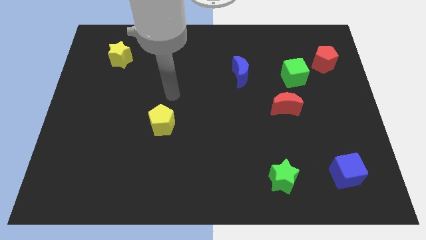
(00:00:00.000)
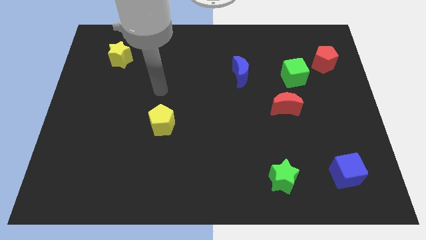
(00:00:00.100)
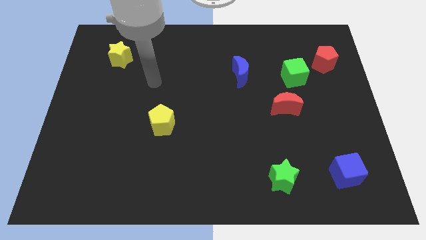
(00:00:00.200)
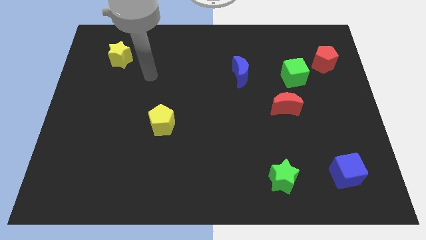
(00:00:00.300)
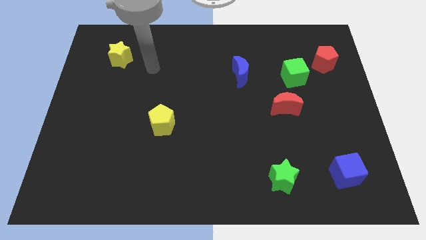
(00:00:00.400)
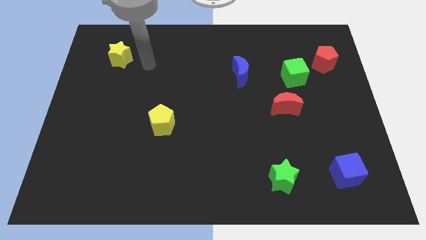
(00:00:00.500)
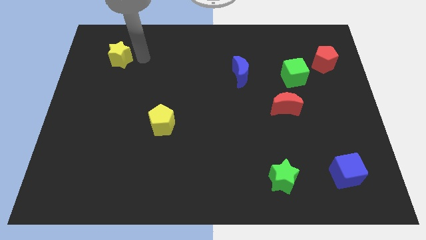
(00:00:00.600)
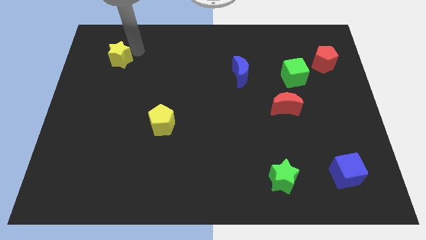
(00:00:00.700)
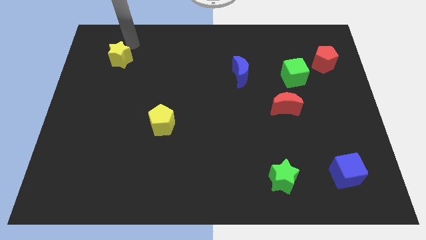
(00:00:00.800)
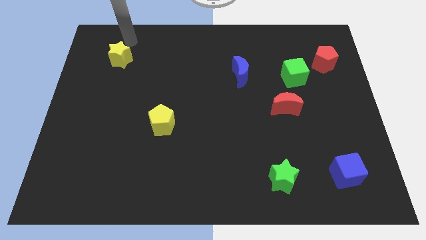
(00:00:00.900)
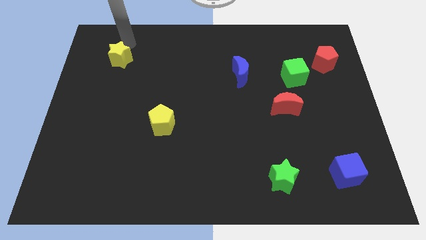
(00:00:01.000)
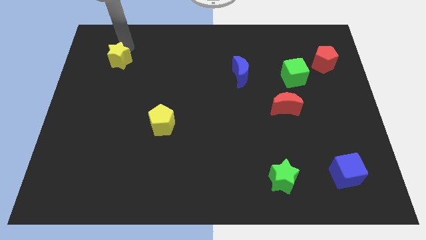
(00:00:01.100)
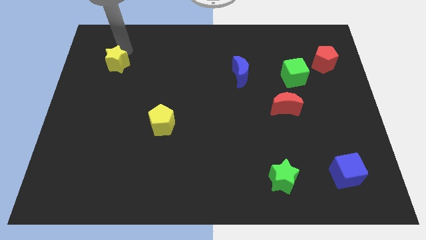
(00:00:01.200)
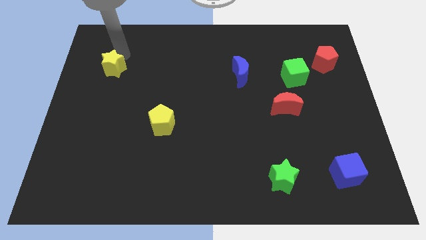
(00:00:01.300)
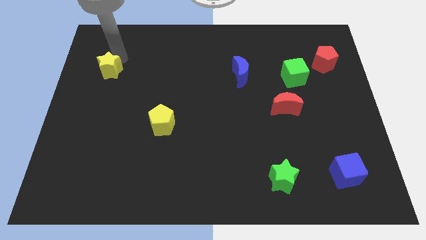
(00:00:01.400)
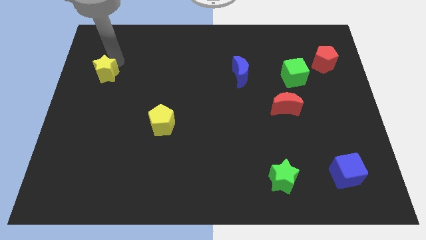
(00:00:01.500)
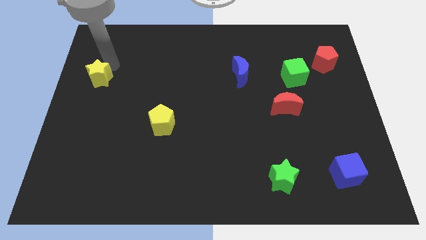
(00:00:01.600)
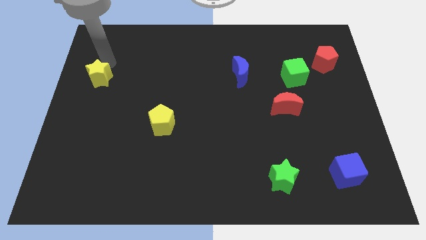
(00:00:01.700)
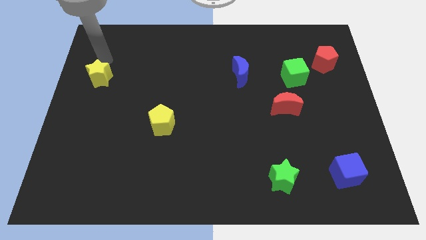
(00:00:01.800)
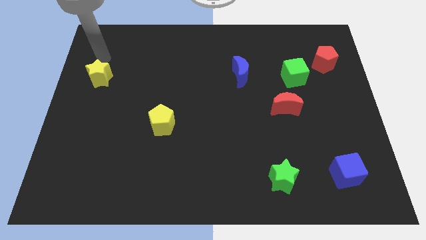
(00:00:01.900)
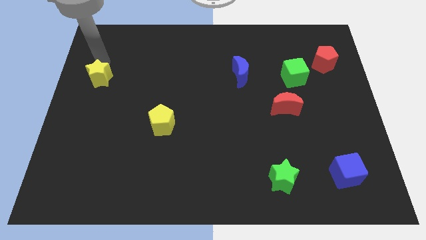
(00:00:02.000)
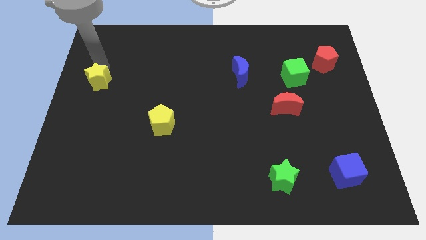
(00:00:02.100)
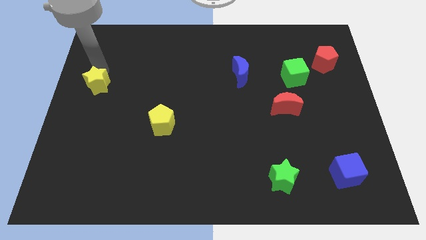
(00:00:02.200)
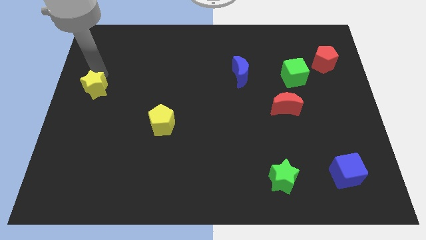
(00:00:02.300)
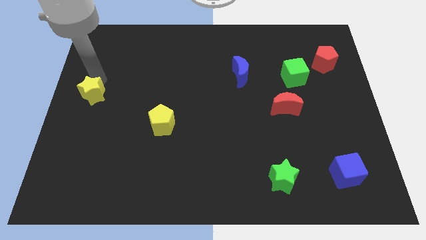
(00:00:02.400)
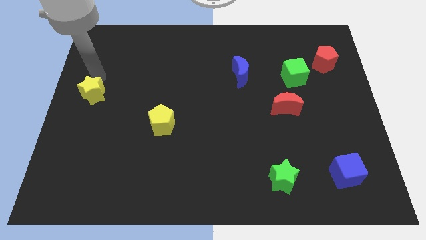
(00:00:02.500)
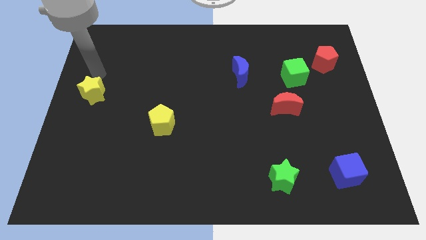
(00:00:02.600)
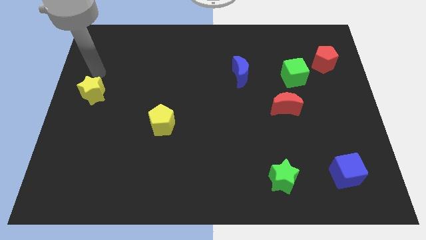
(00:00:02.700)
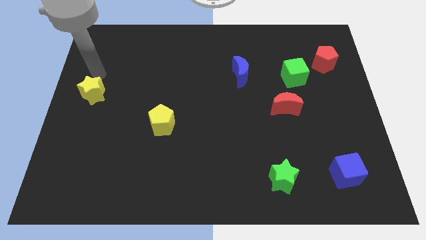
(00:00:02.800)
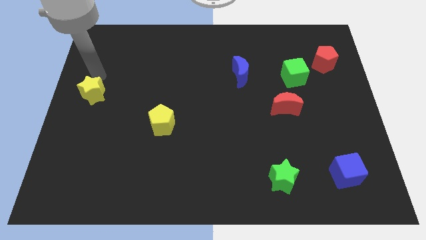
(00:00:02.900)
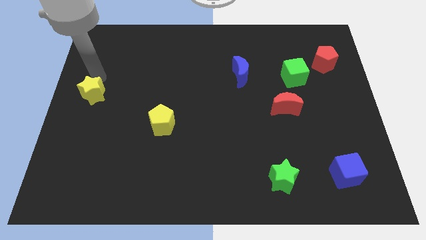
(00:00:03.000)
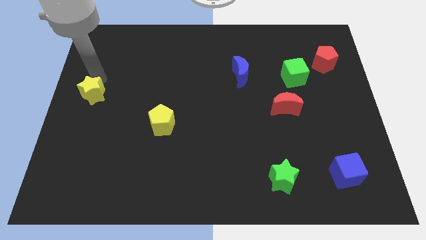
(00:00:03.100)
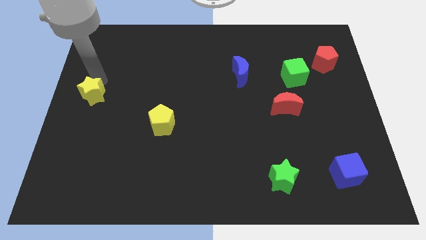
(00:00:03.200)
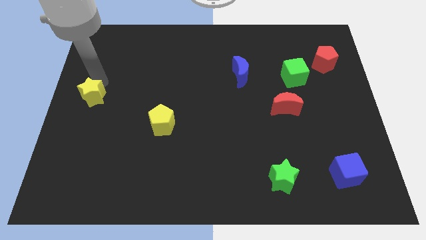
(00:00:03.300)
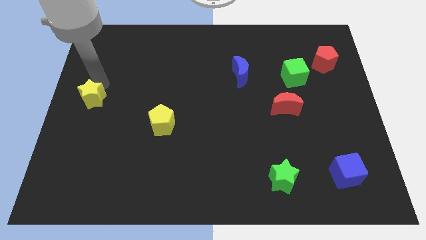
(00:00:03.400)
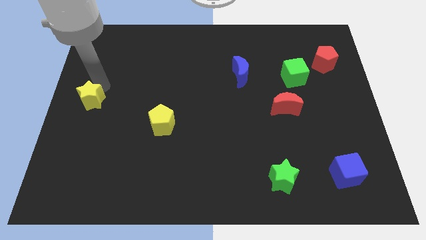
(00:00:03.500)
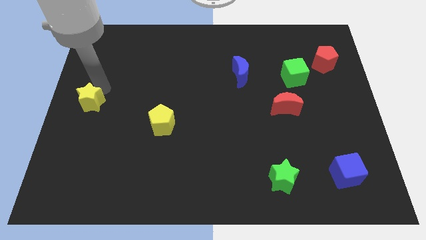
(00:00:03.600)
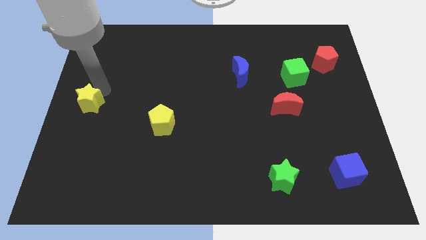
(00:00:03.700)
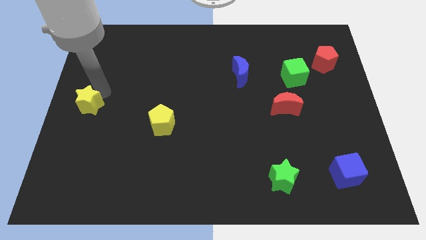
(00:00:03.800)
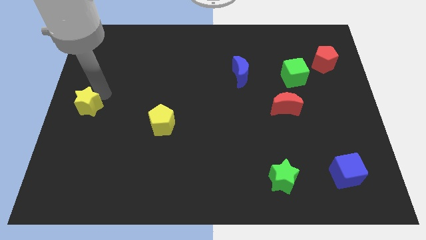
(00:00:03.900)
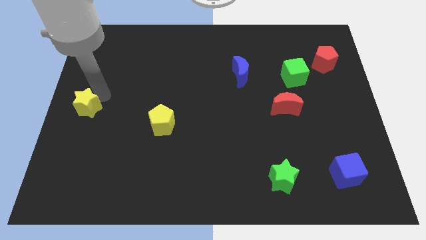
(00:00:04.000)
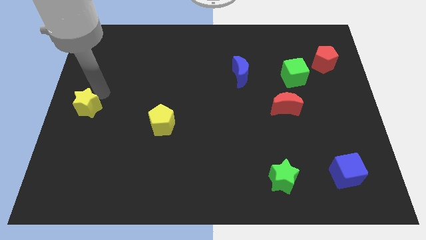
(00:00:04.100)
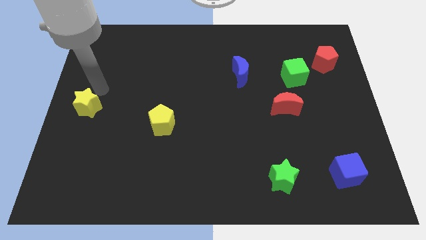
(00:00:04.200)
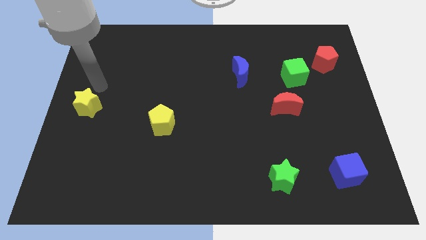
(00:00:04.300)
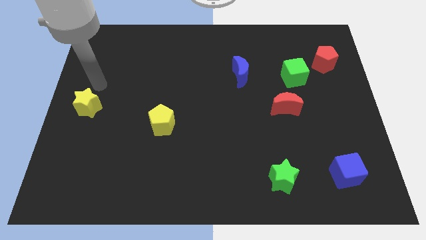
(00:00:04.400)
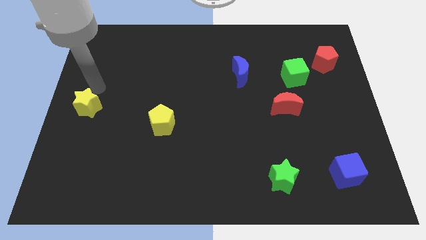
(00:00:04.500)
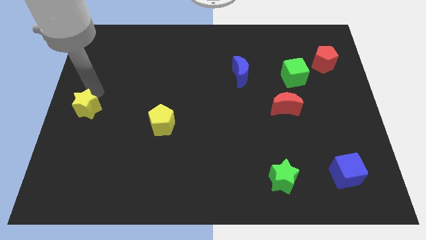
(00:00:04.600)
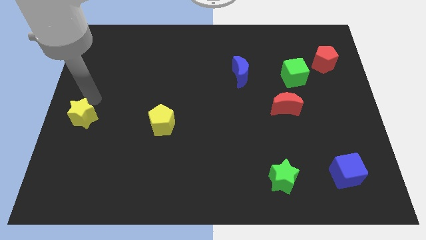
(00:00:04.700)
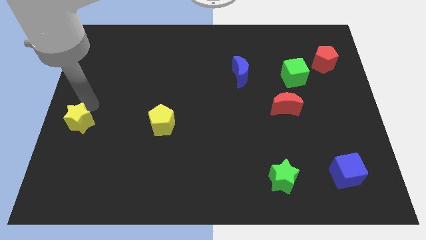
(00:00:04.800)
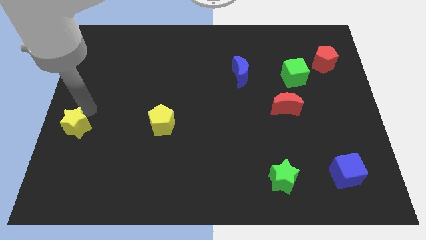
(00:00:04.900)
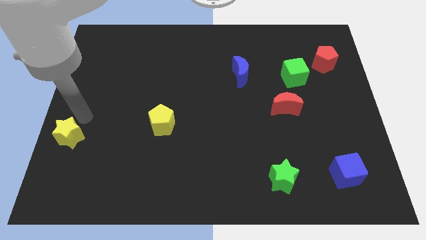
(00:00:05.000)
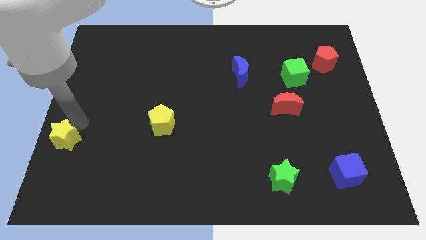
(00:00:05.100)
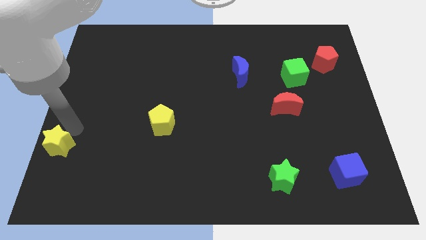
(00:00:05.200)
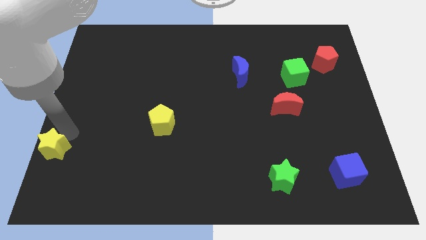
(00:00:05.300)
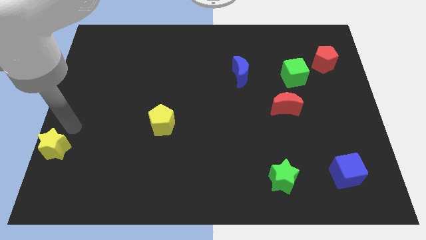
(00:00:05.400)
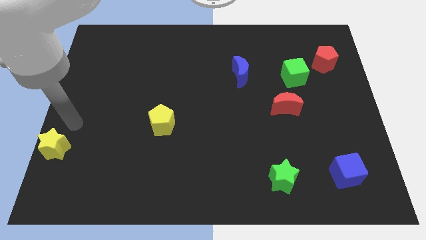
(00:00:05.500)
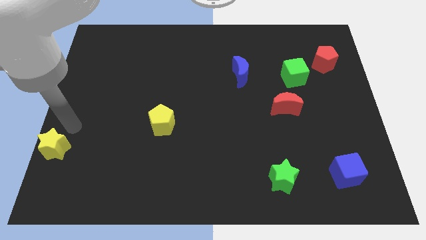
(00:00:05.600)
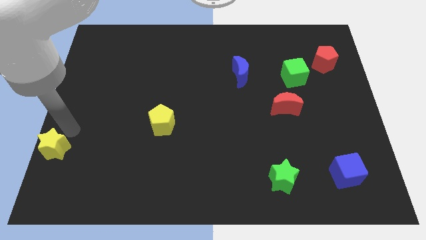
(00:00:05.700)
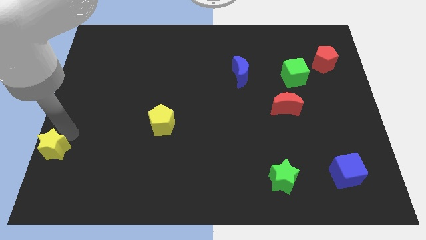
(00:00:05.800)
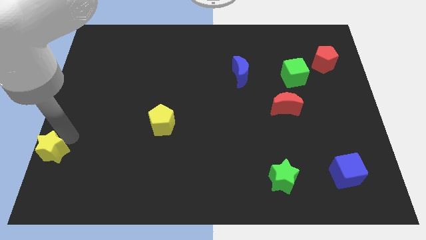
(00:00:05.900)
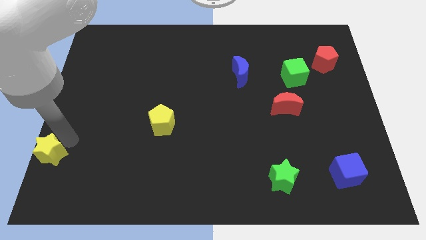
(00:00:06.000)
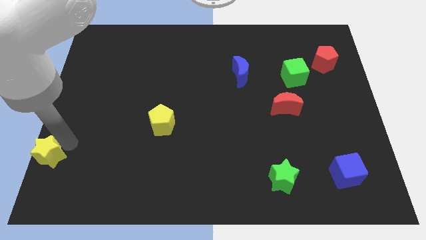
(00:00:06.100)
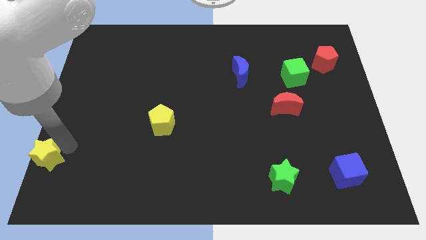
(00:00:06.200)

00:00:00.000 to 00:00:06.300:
push the yellow star to the bottom left
